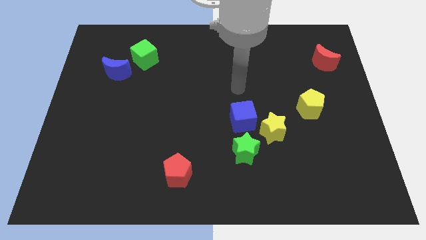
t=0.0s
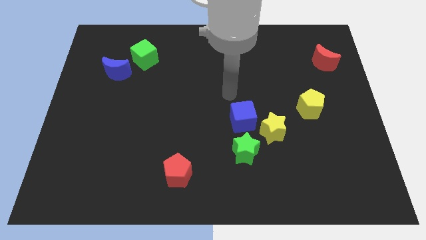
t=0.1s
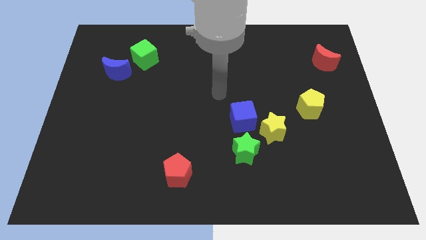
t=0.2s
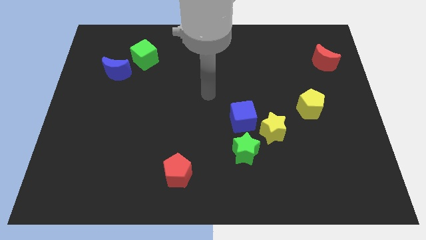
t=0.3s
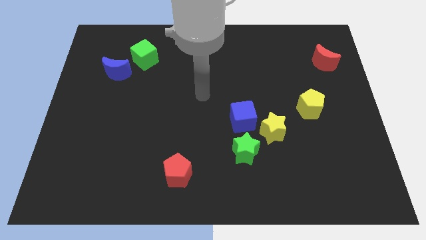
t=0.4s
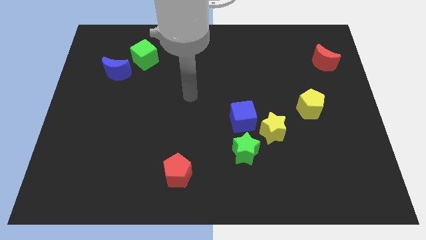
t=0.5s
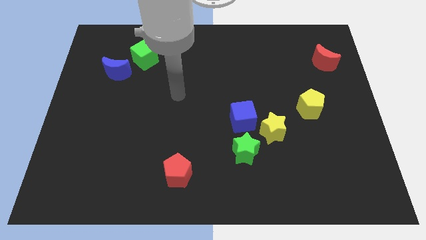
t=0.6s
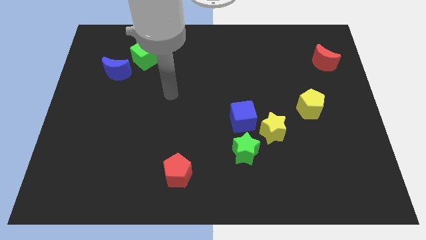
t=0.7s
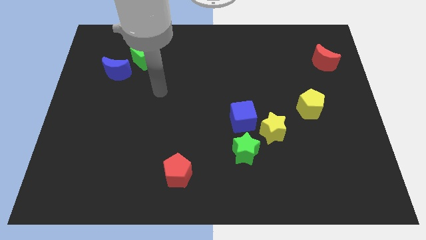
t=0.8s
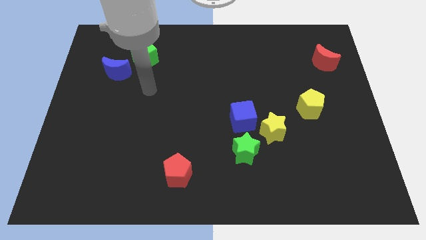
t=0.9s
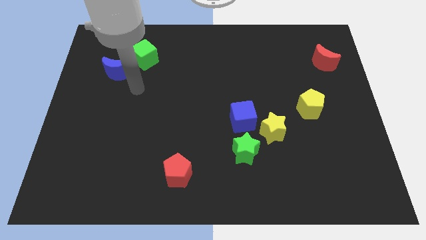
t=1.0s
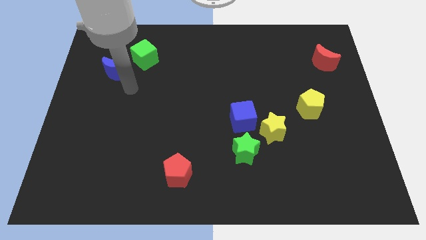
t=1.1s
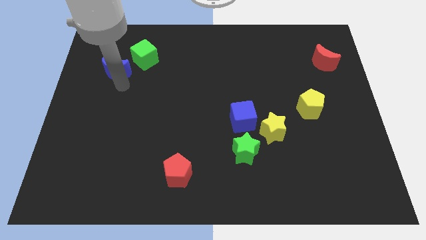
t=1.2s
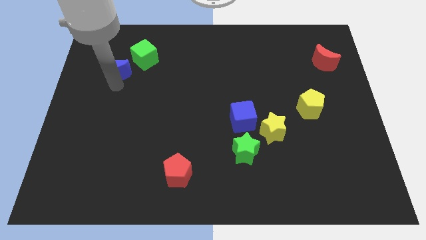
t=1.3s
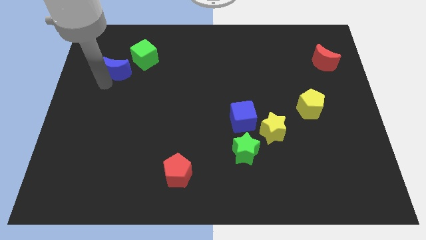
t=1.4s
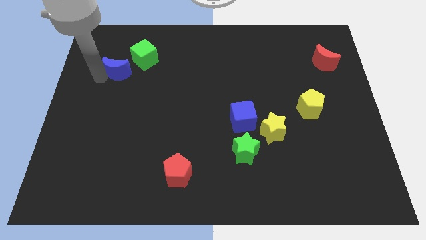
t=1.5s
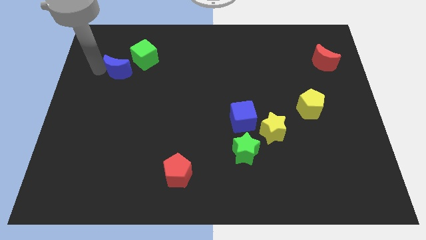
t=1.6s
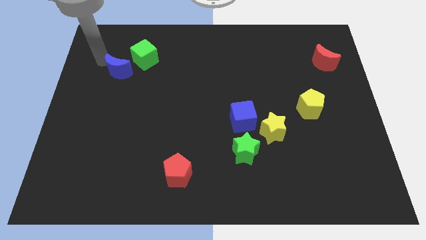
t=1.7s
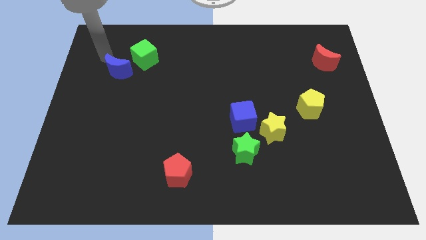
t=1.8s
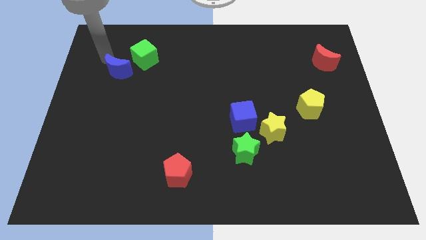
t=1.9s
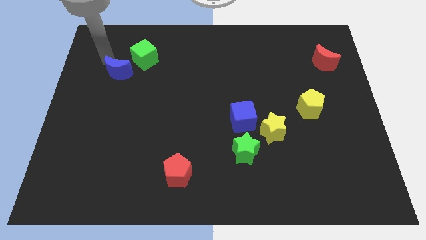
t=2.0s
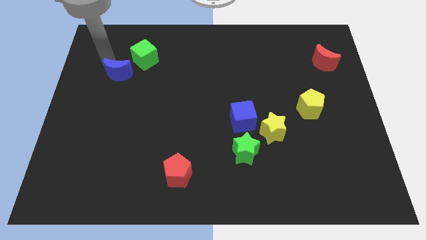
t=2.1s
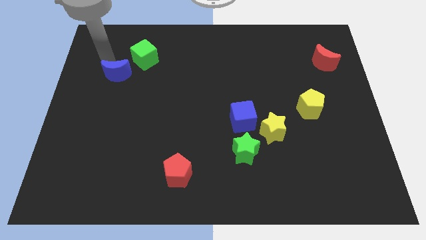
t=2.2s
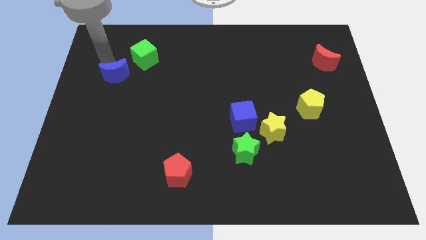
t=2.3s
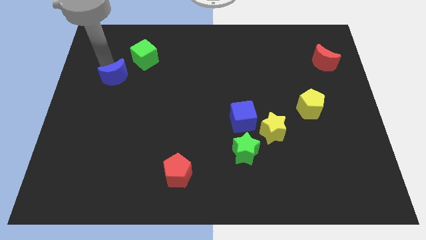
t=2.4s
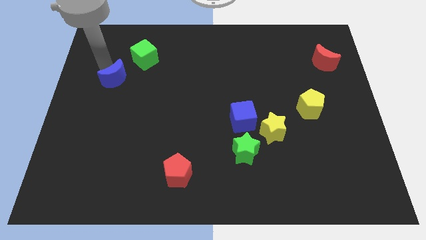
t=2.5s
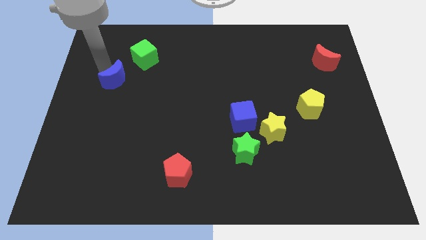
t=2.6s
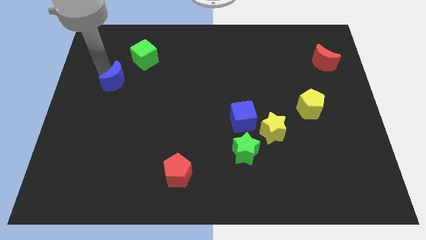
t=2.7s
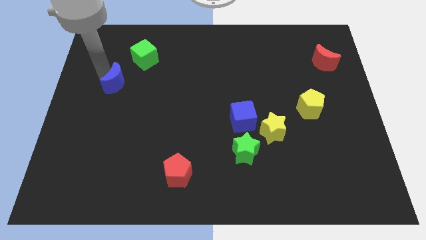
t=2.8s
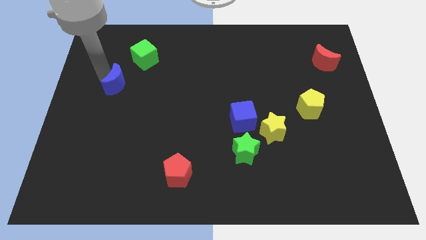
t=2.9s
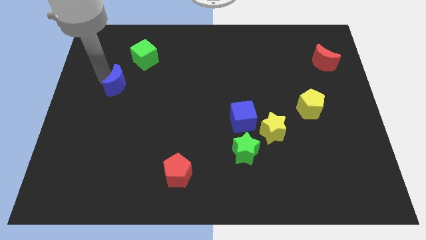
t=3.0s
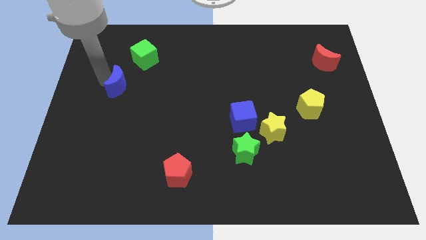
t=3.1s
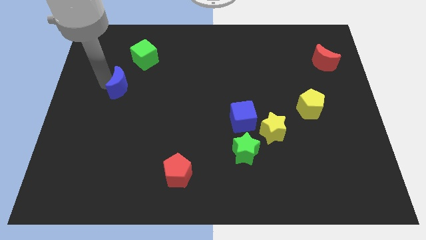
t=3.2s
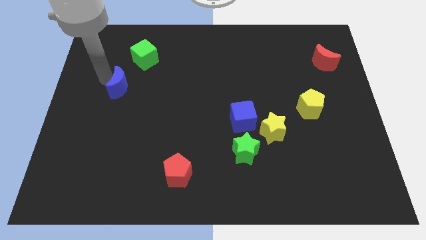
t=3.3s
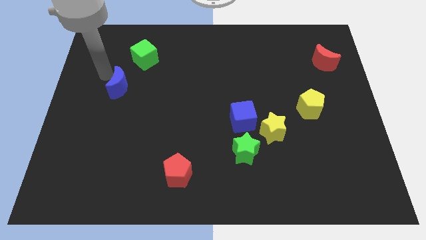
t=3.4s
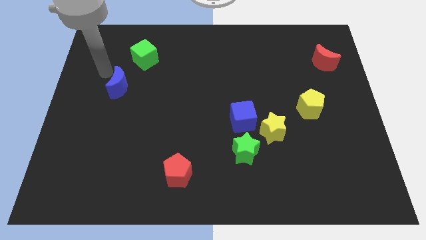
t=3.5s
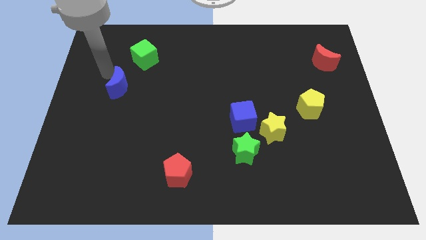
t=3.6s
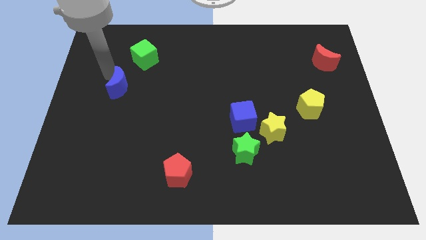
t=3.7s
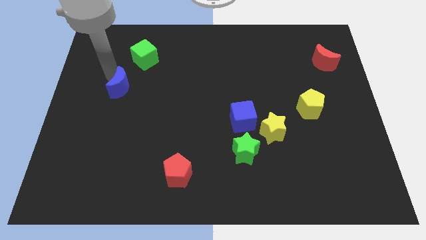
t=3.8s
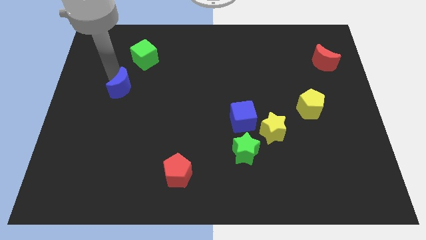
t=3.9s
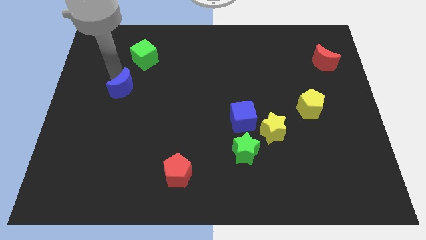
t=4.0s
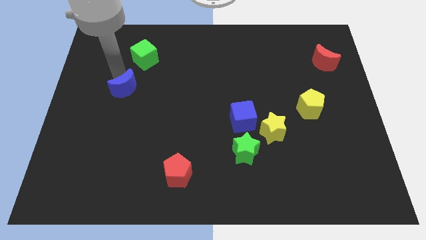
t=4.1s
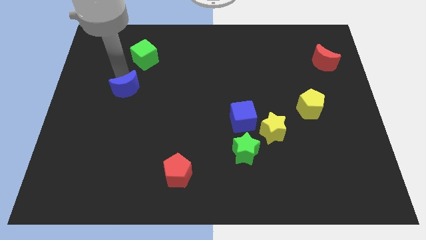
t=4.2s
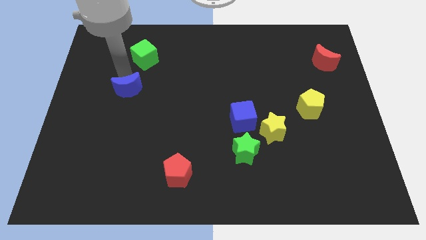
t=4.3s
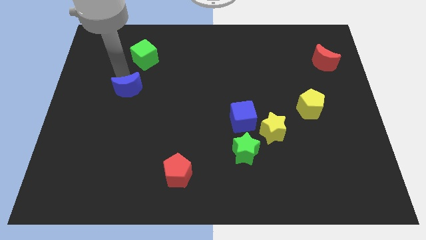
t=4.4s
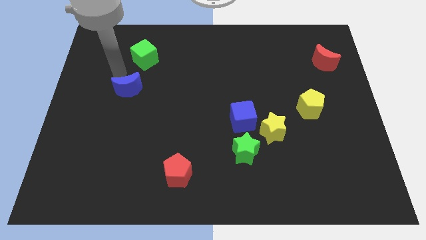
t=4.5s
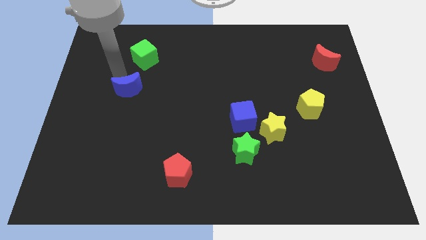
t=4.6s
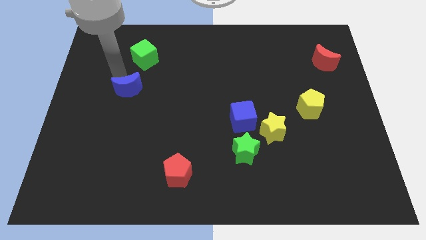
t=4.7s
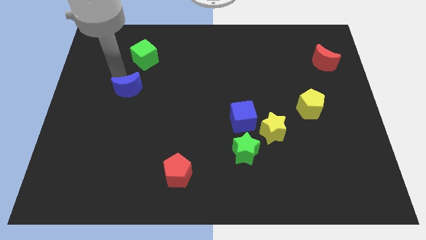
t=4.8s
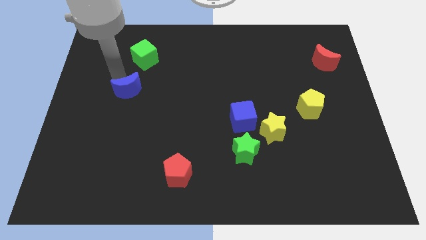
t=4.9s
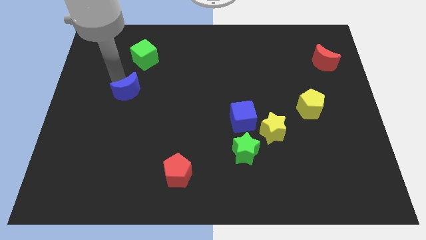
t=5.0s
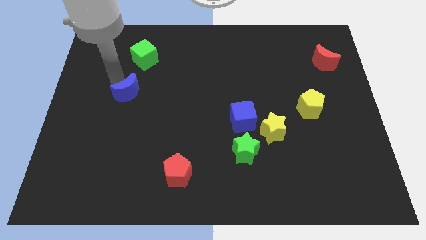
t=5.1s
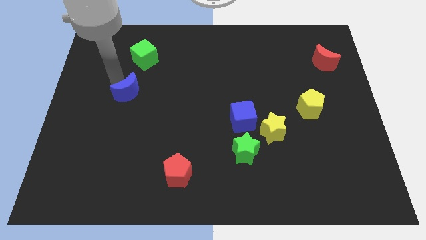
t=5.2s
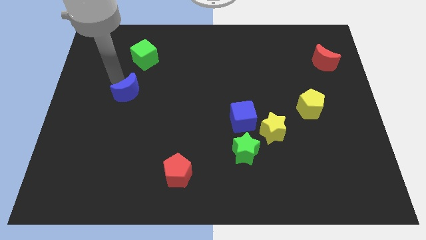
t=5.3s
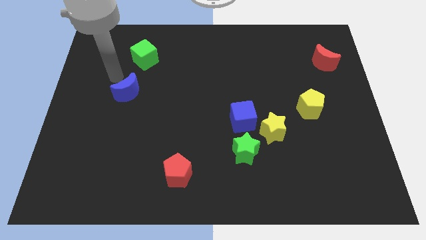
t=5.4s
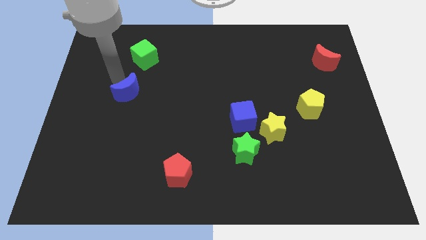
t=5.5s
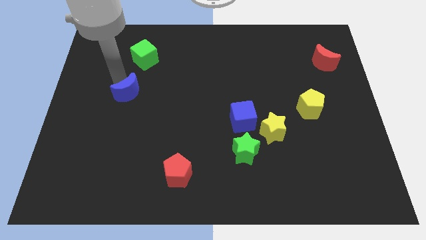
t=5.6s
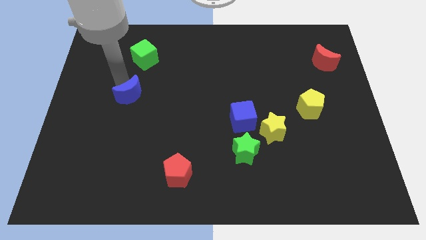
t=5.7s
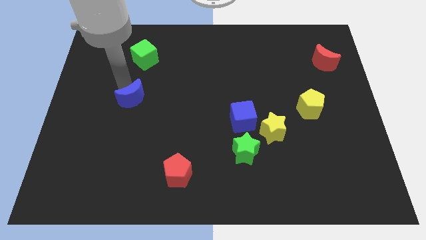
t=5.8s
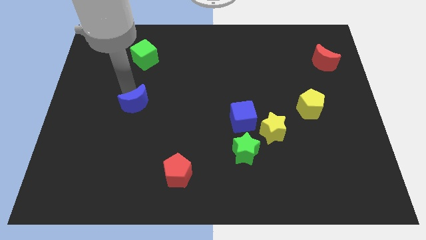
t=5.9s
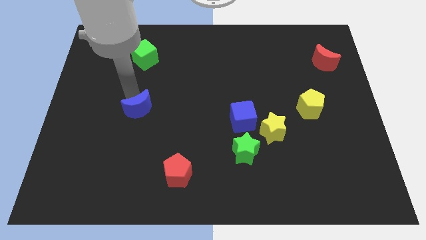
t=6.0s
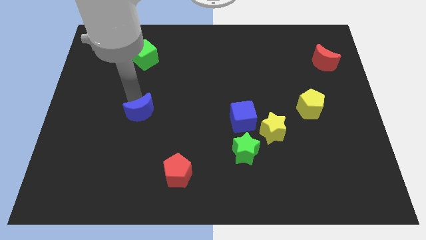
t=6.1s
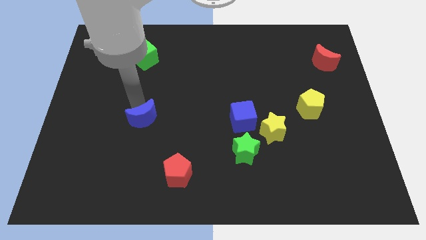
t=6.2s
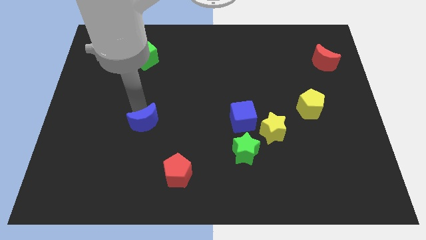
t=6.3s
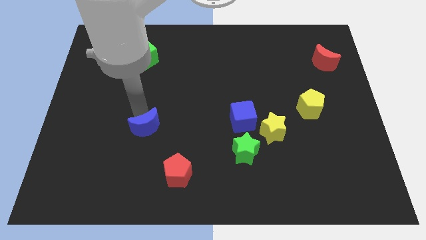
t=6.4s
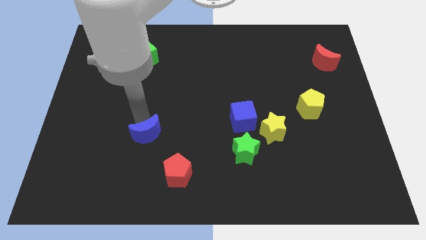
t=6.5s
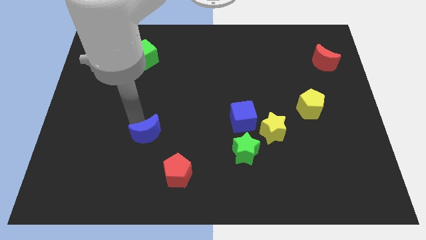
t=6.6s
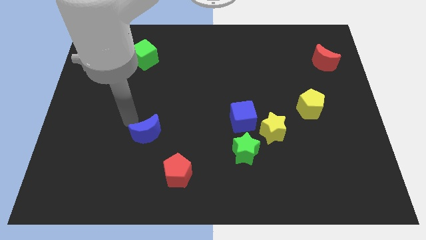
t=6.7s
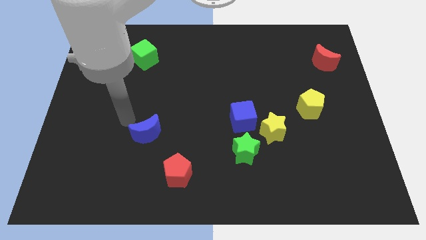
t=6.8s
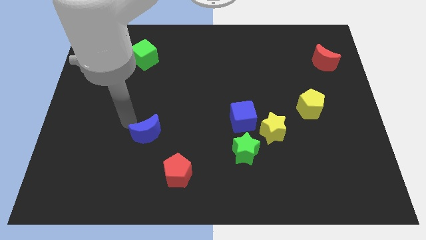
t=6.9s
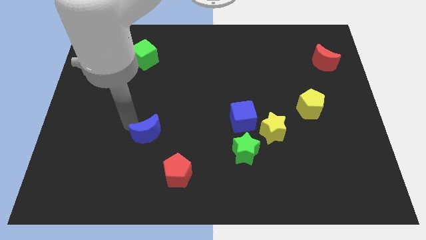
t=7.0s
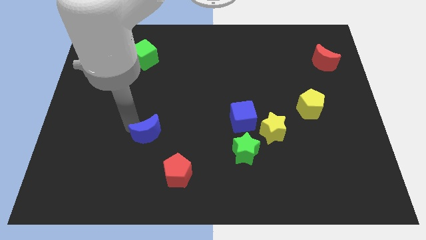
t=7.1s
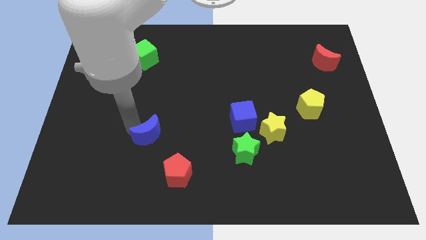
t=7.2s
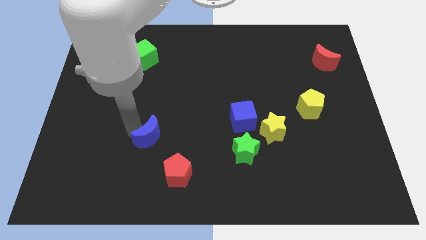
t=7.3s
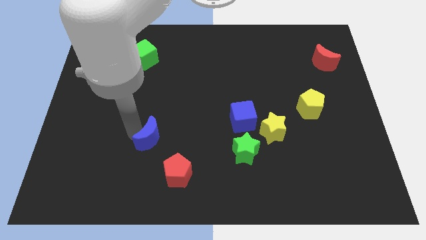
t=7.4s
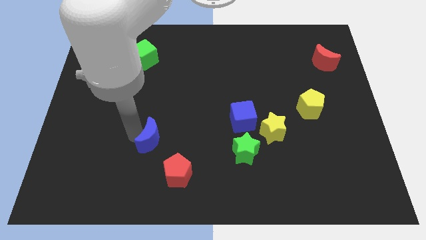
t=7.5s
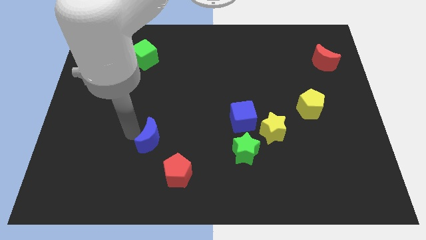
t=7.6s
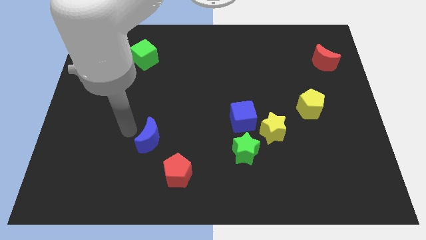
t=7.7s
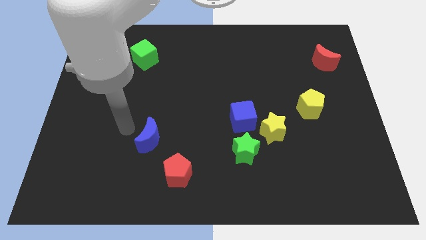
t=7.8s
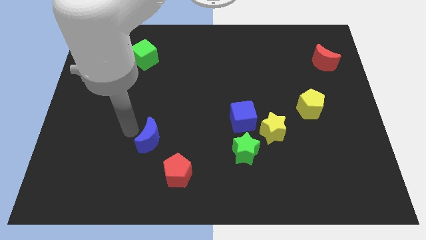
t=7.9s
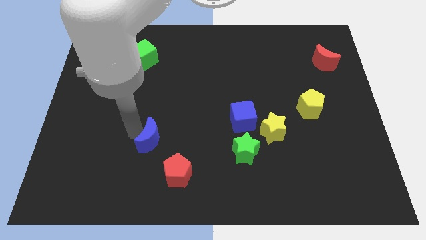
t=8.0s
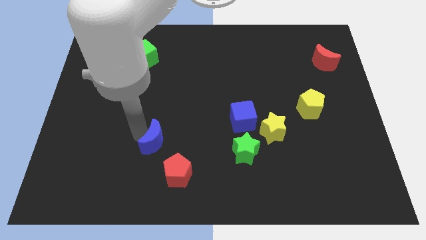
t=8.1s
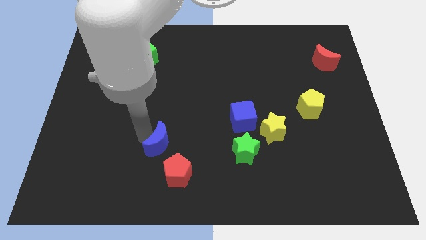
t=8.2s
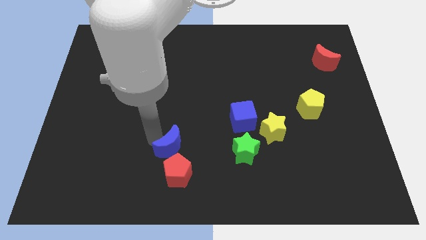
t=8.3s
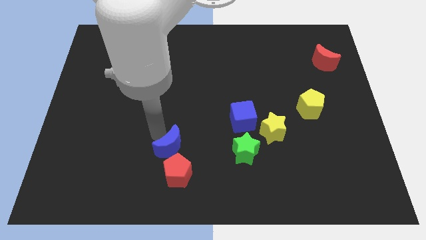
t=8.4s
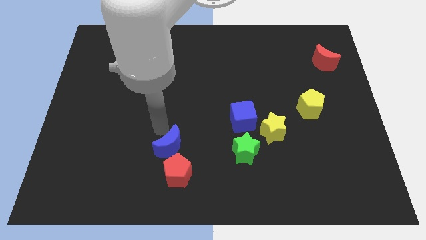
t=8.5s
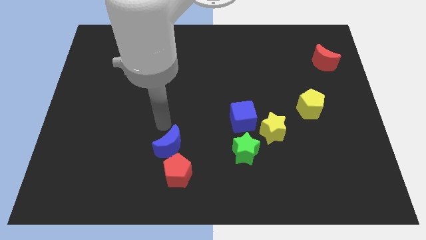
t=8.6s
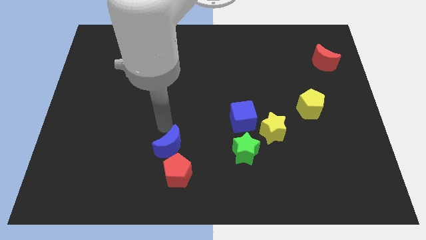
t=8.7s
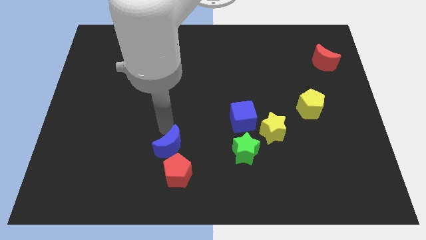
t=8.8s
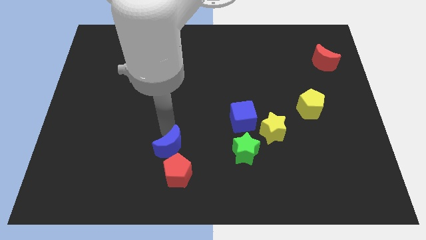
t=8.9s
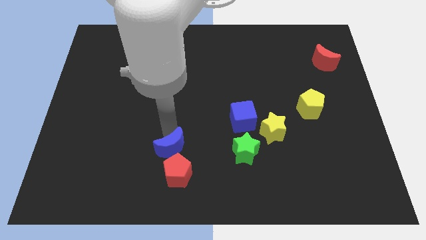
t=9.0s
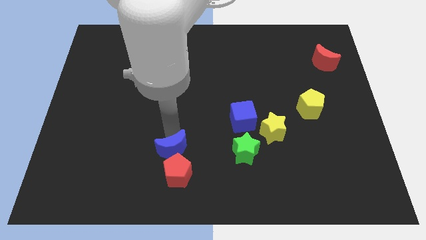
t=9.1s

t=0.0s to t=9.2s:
push the blue moon close to the red pentagon
